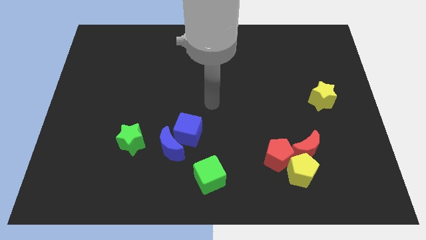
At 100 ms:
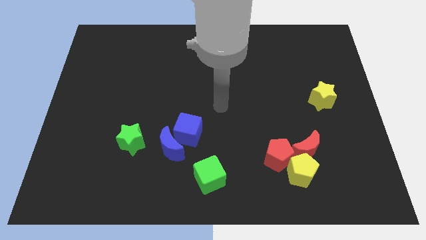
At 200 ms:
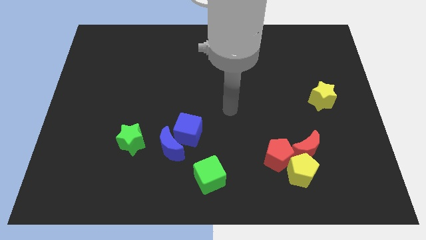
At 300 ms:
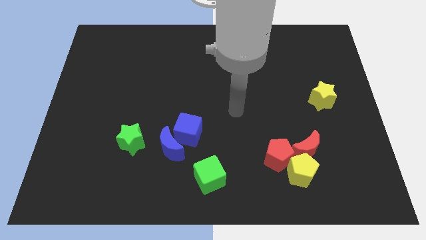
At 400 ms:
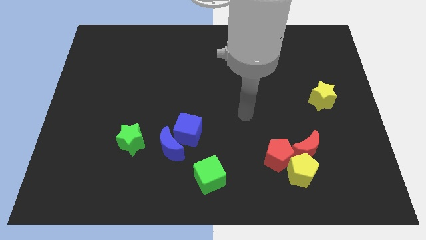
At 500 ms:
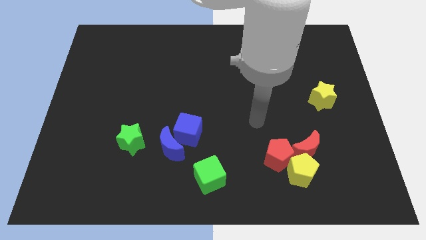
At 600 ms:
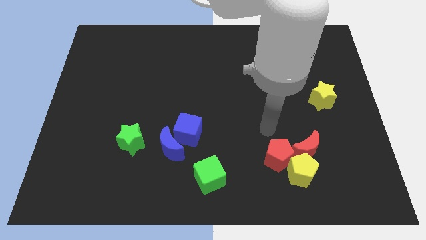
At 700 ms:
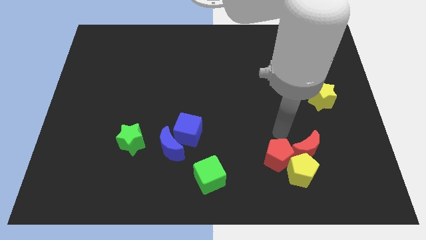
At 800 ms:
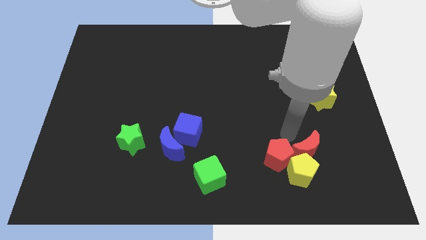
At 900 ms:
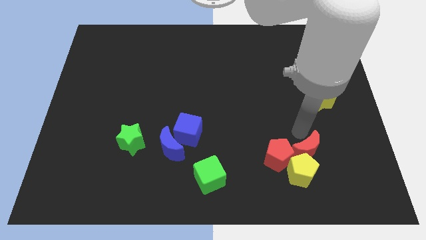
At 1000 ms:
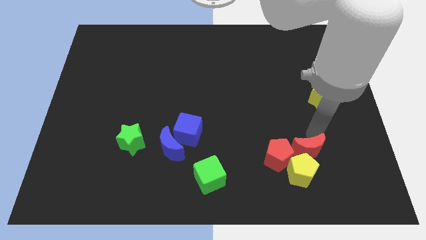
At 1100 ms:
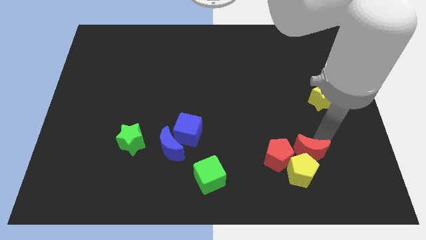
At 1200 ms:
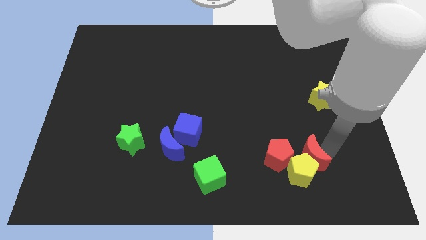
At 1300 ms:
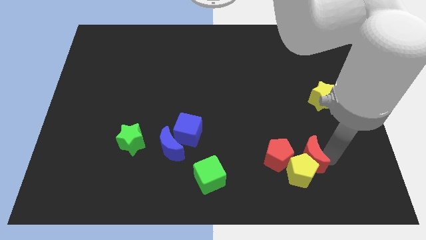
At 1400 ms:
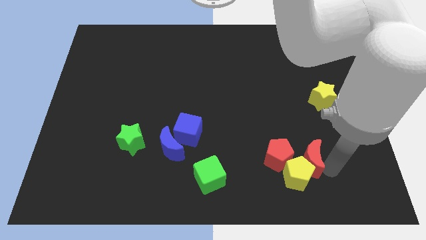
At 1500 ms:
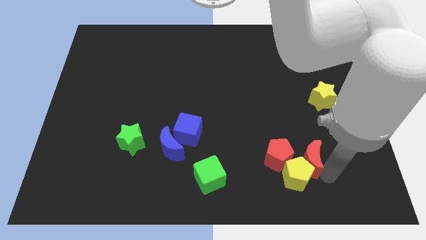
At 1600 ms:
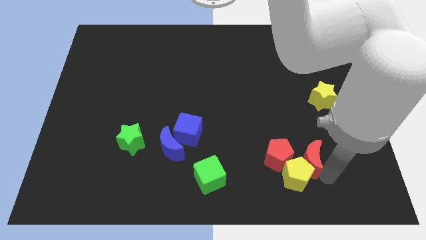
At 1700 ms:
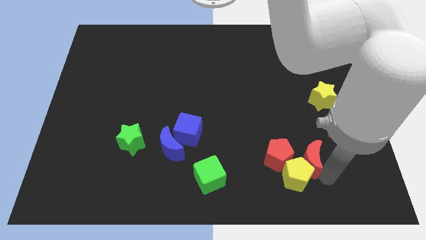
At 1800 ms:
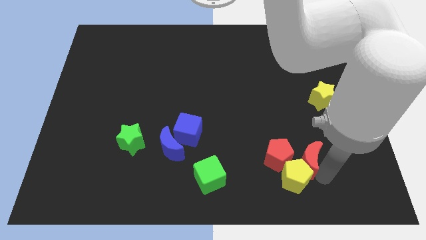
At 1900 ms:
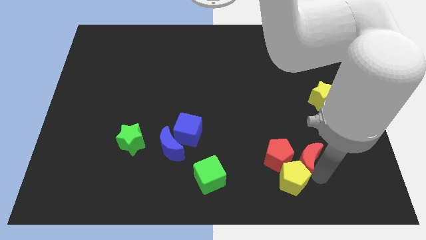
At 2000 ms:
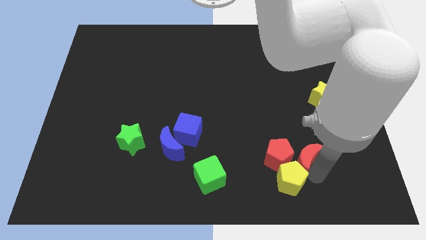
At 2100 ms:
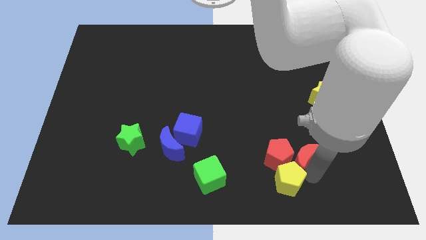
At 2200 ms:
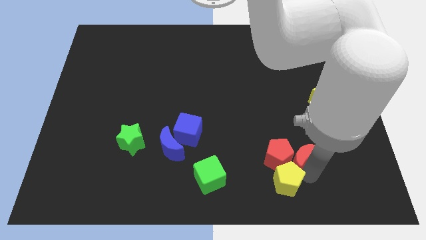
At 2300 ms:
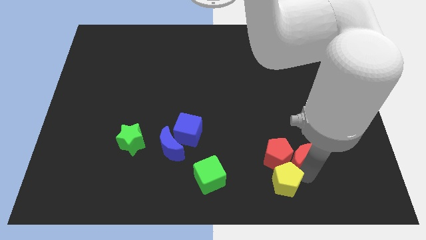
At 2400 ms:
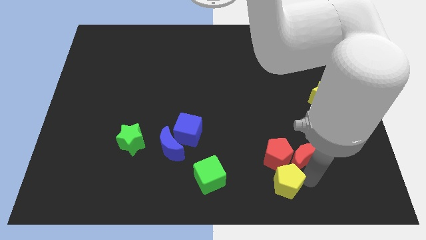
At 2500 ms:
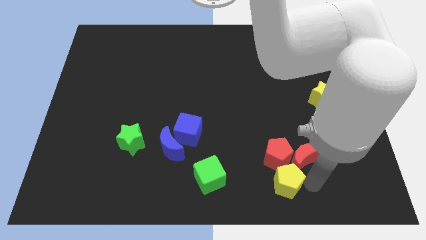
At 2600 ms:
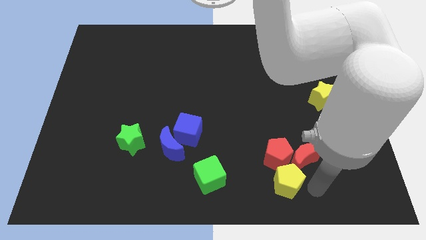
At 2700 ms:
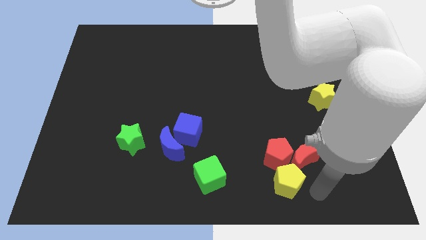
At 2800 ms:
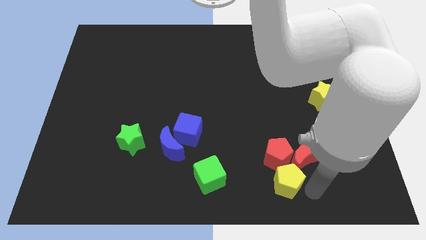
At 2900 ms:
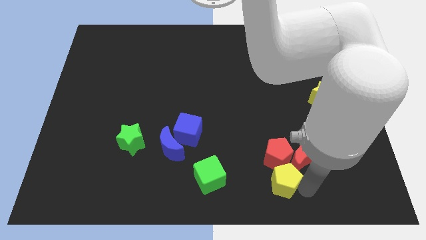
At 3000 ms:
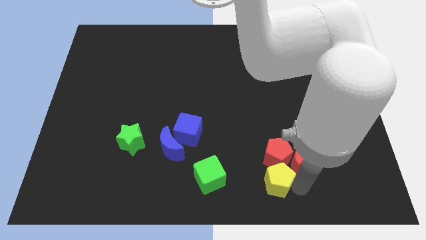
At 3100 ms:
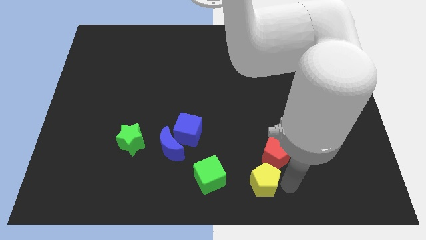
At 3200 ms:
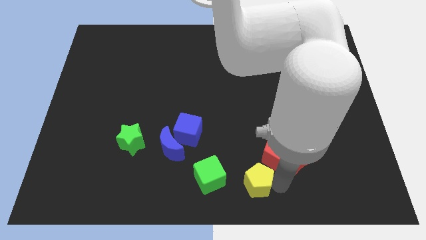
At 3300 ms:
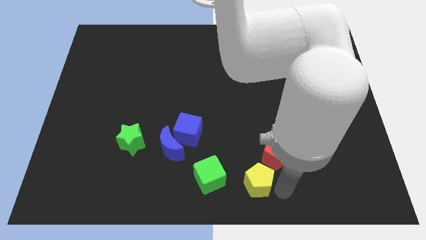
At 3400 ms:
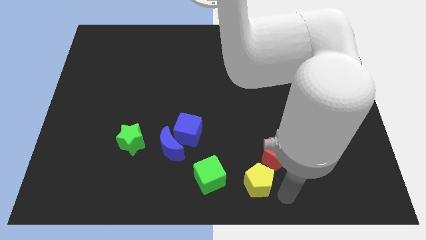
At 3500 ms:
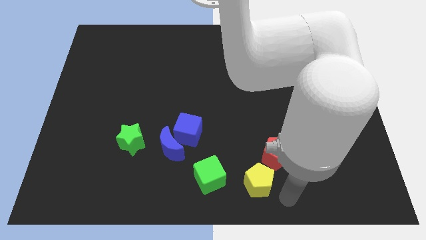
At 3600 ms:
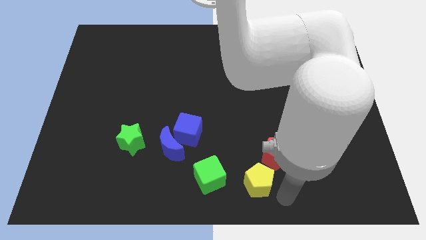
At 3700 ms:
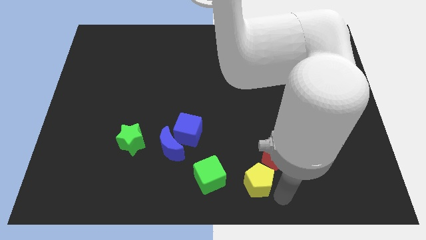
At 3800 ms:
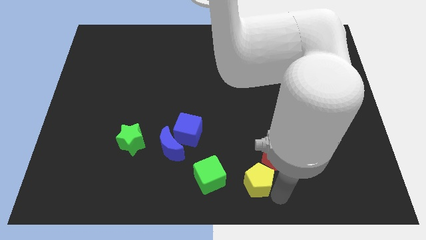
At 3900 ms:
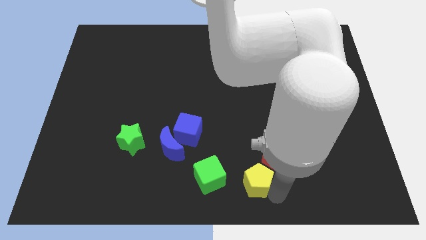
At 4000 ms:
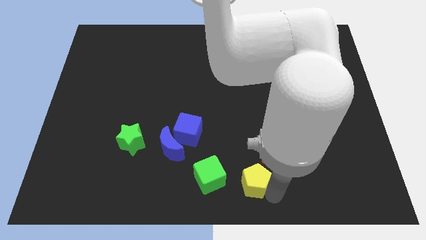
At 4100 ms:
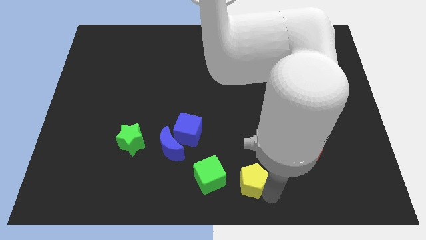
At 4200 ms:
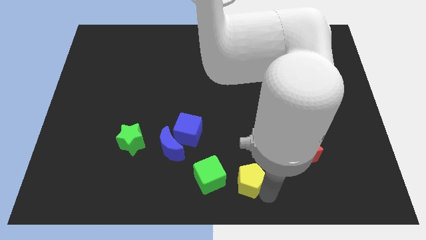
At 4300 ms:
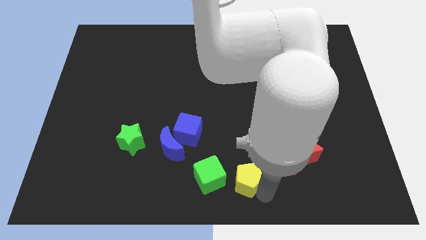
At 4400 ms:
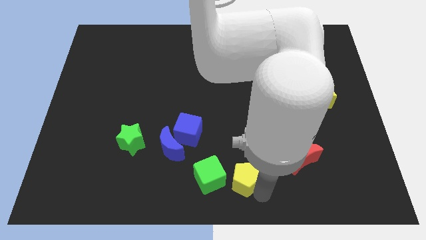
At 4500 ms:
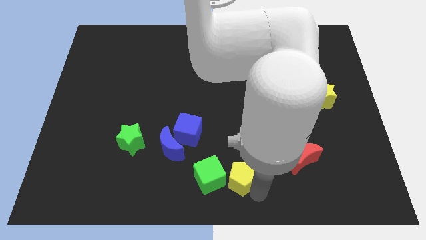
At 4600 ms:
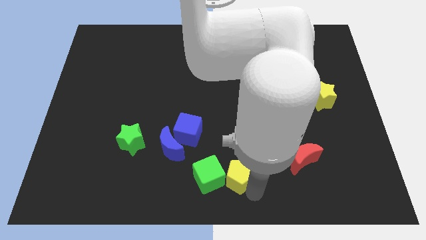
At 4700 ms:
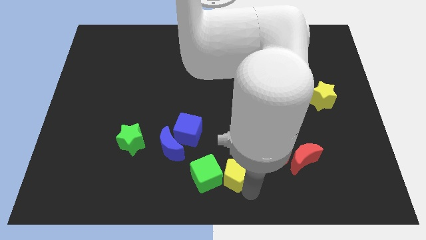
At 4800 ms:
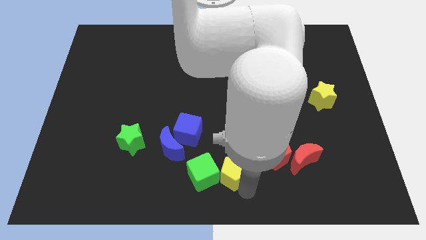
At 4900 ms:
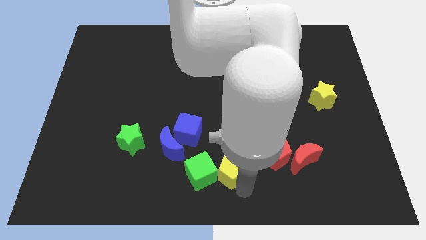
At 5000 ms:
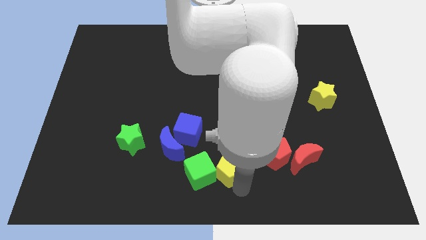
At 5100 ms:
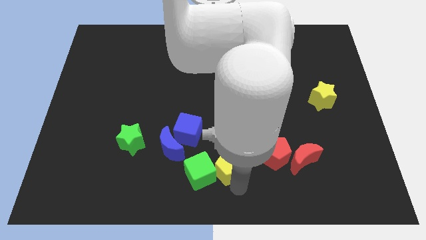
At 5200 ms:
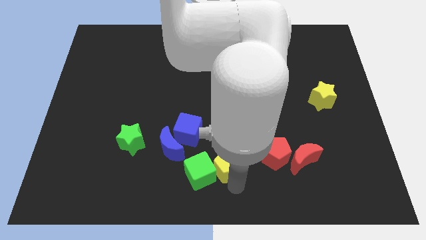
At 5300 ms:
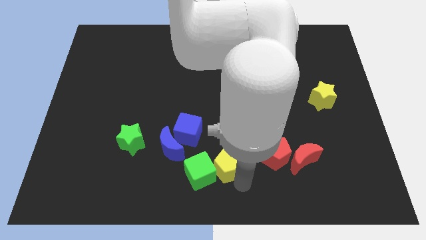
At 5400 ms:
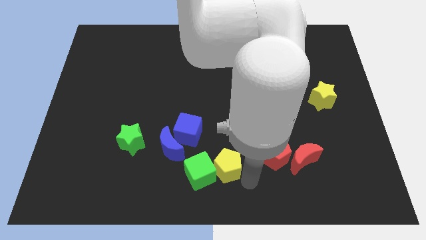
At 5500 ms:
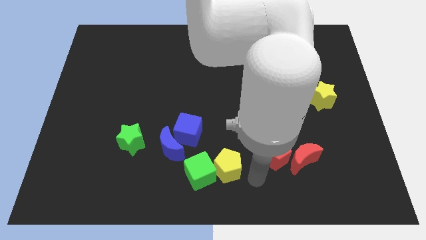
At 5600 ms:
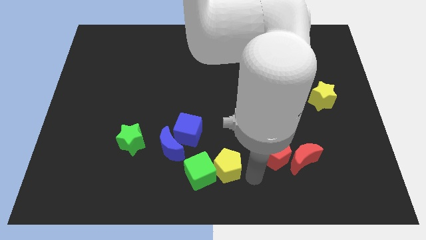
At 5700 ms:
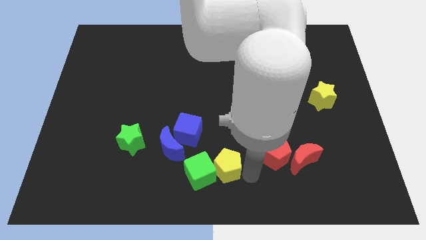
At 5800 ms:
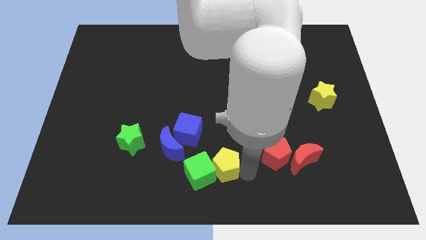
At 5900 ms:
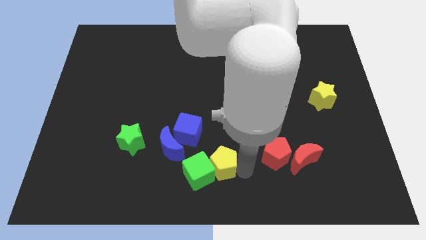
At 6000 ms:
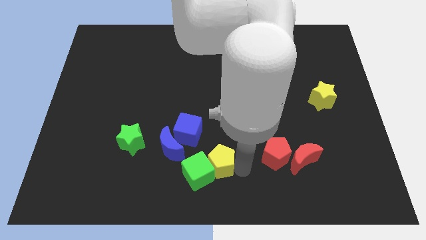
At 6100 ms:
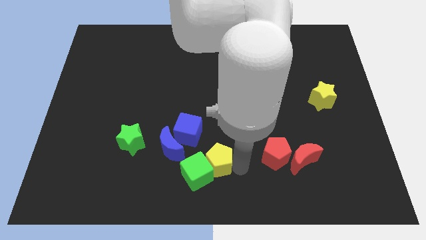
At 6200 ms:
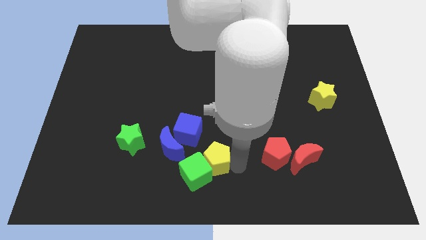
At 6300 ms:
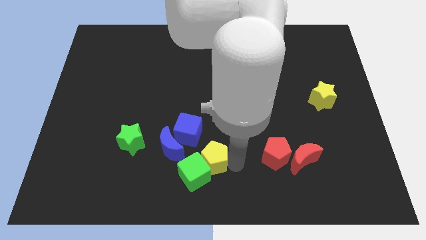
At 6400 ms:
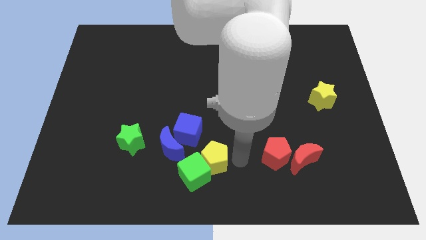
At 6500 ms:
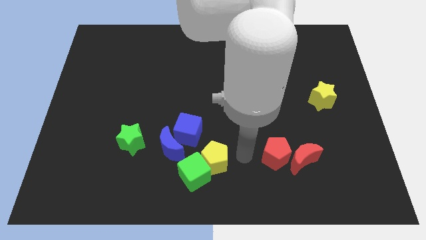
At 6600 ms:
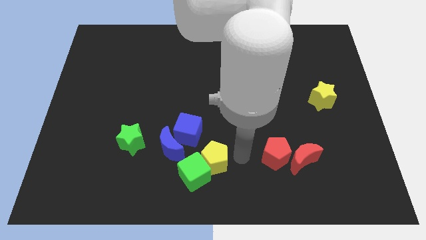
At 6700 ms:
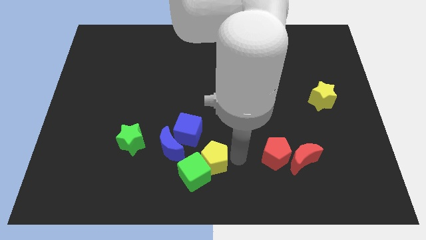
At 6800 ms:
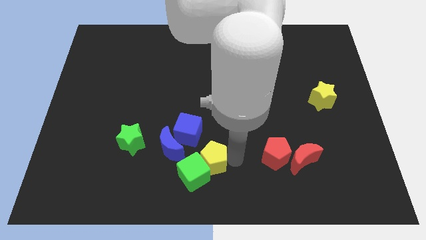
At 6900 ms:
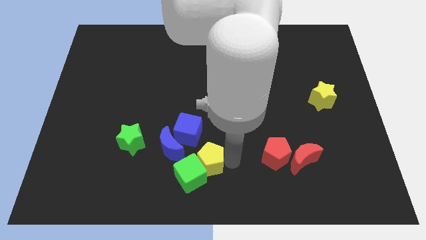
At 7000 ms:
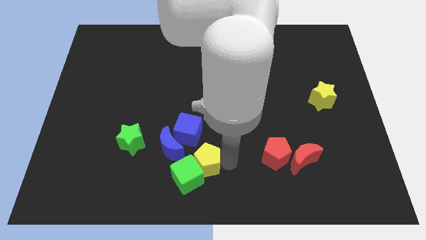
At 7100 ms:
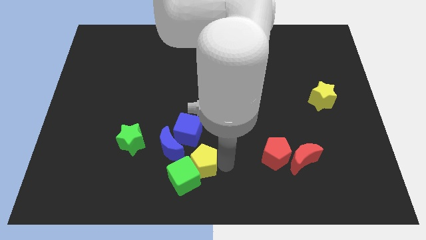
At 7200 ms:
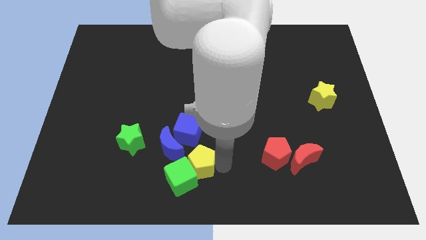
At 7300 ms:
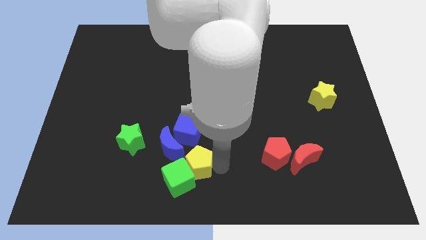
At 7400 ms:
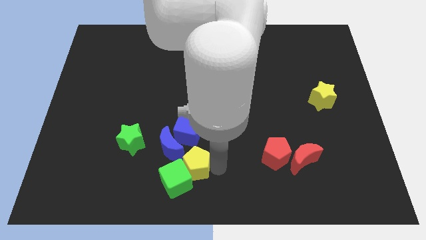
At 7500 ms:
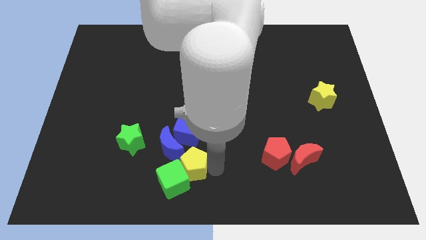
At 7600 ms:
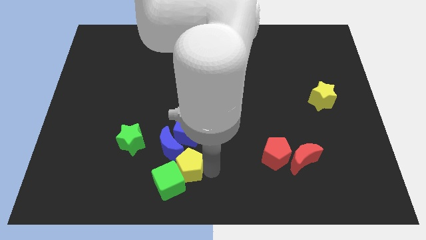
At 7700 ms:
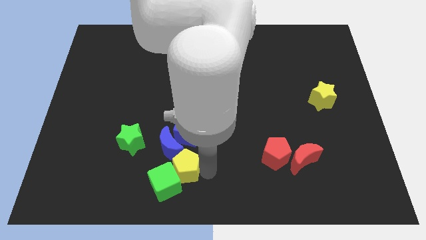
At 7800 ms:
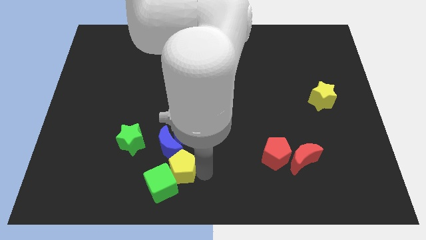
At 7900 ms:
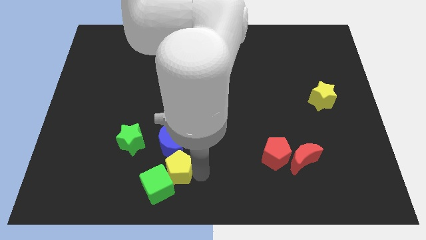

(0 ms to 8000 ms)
slide the yellow pentagon to the bottom right side of the green star
